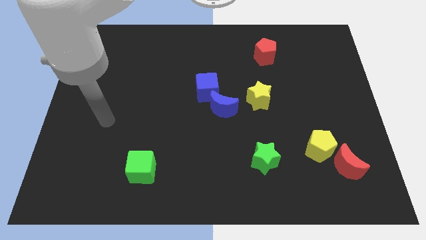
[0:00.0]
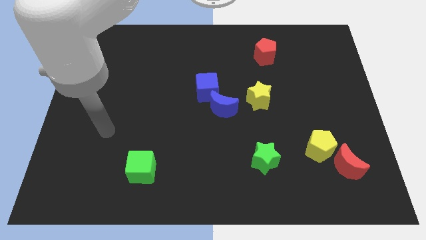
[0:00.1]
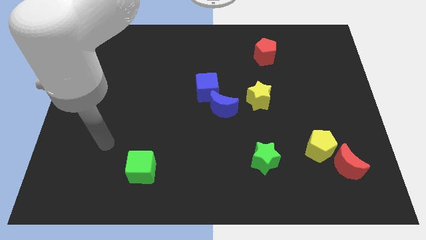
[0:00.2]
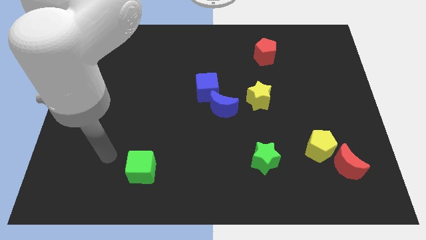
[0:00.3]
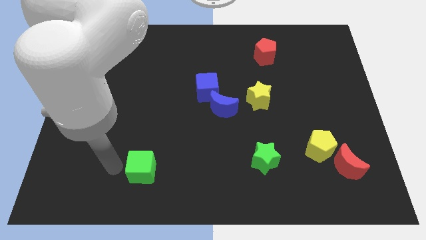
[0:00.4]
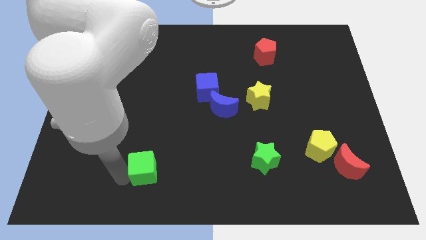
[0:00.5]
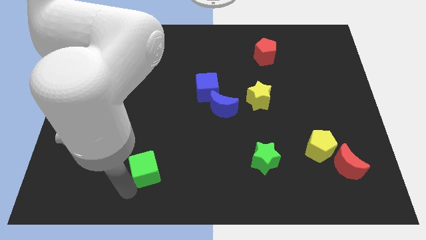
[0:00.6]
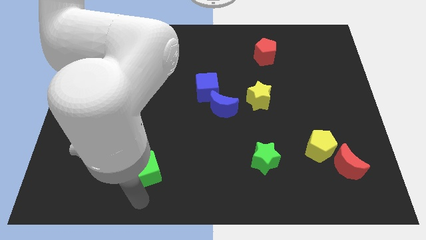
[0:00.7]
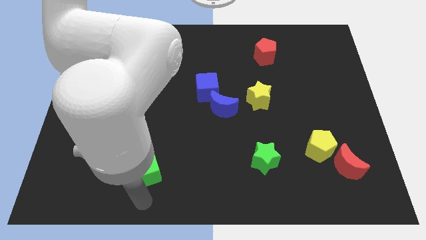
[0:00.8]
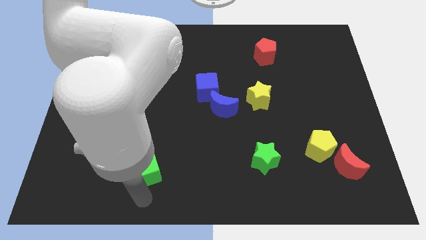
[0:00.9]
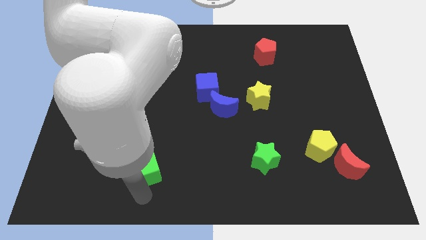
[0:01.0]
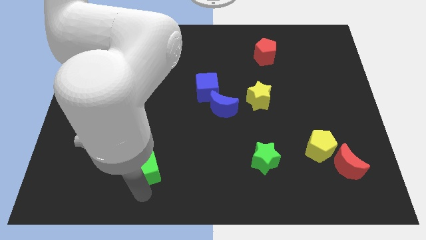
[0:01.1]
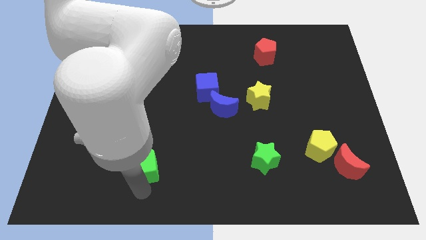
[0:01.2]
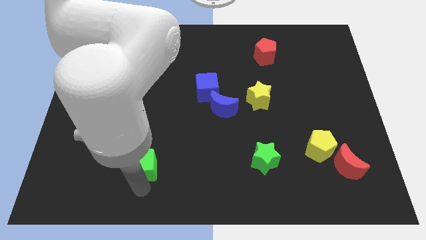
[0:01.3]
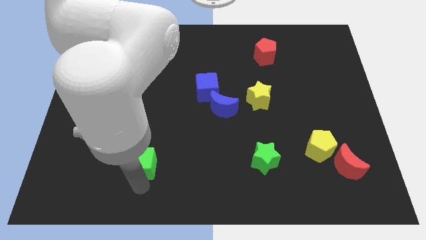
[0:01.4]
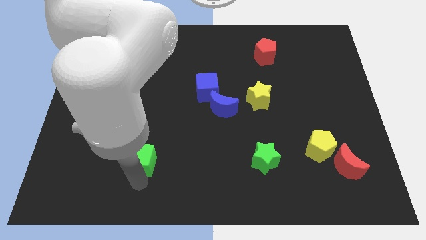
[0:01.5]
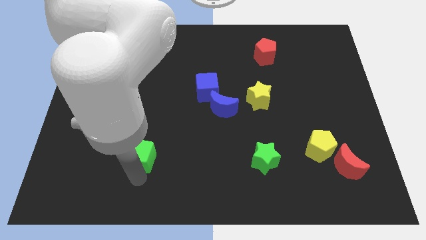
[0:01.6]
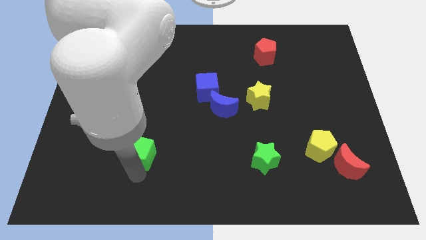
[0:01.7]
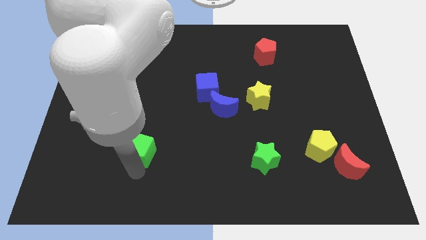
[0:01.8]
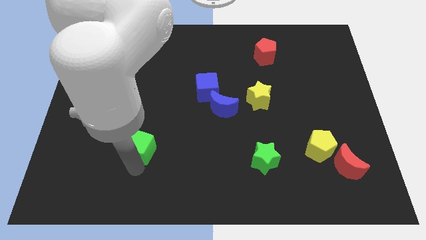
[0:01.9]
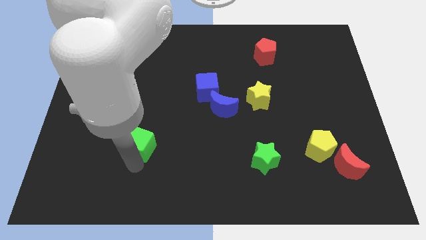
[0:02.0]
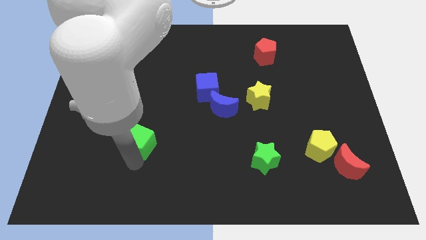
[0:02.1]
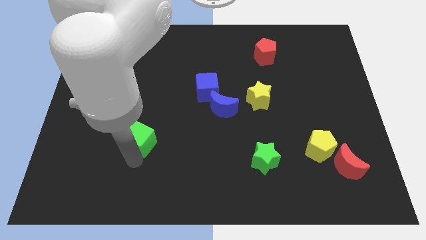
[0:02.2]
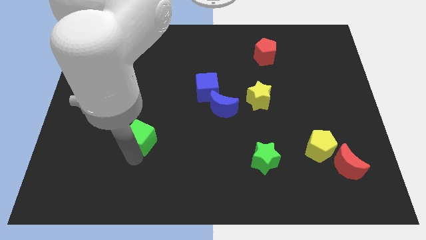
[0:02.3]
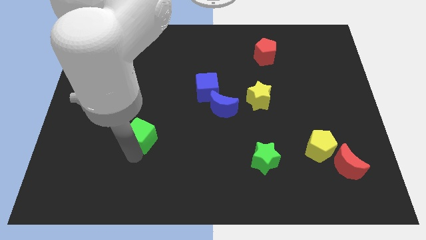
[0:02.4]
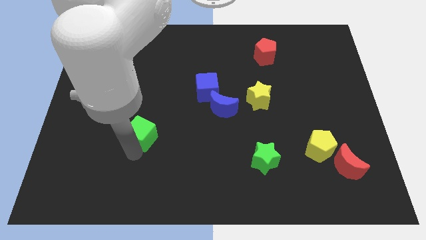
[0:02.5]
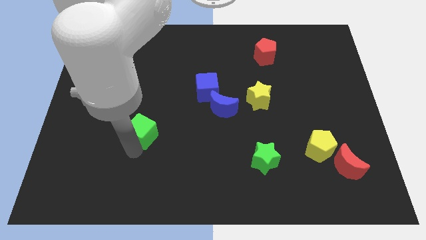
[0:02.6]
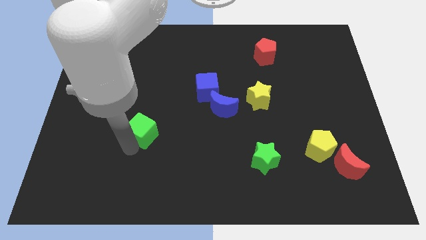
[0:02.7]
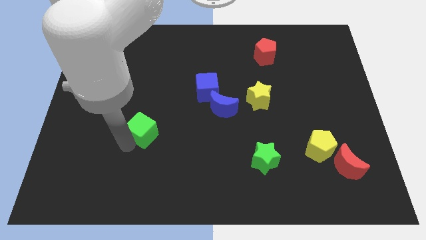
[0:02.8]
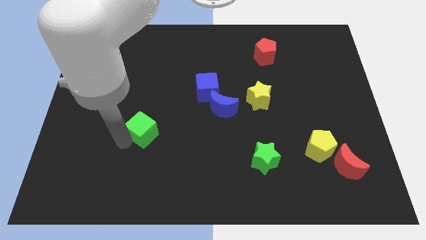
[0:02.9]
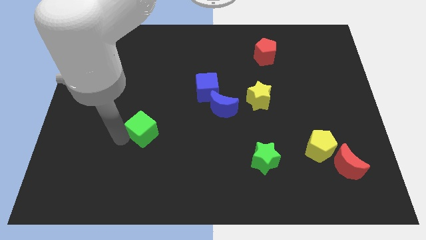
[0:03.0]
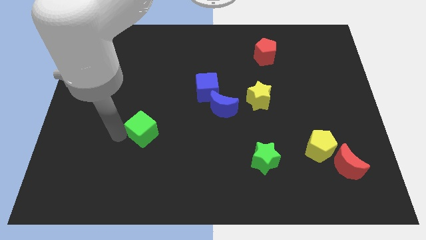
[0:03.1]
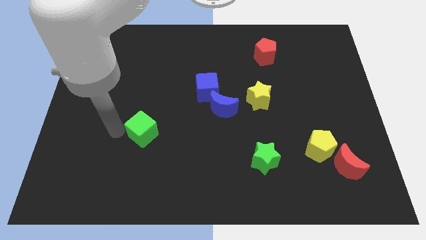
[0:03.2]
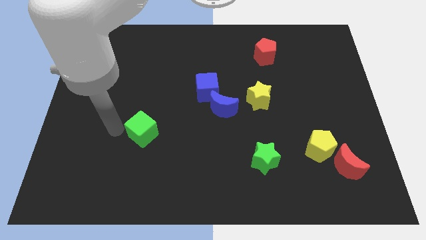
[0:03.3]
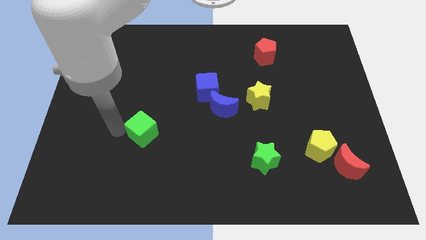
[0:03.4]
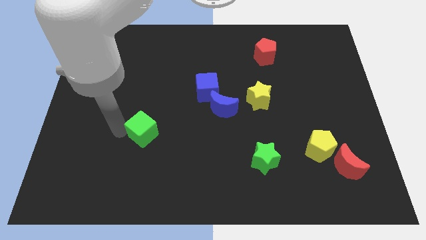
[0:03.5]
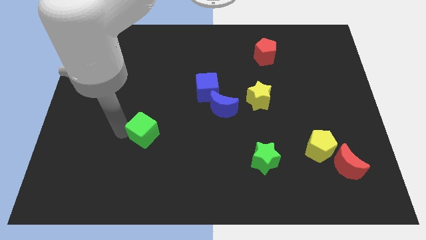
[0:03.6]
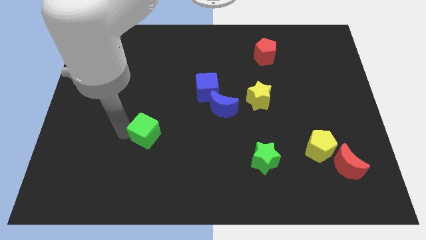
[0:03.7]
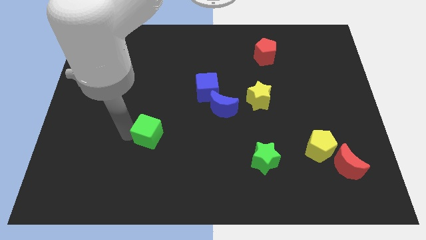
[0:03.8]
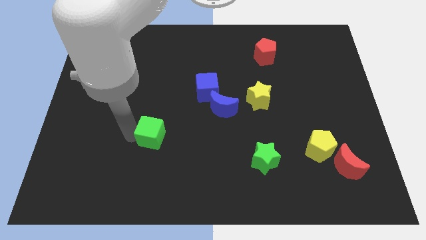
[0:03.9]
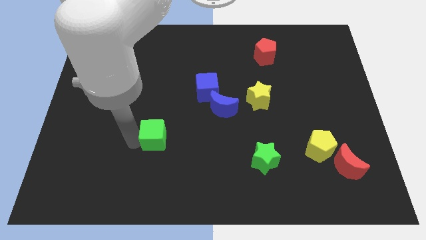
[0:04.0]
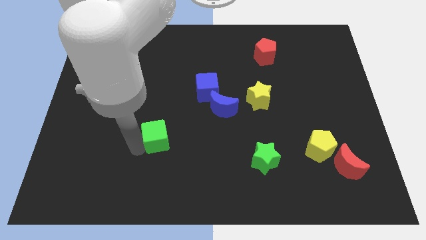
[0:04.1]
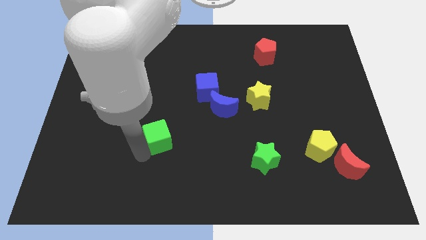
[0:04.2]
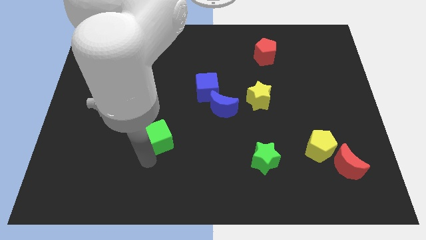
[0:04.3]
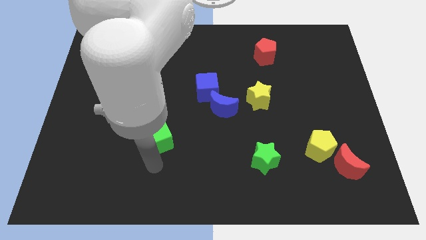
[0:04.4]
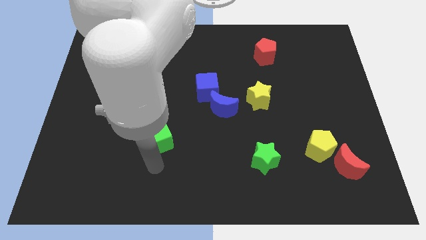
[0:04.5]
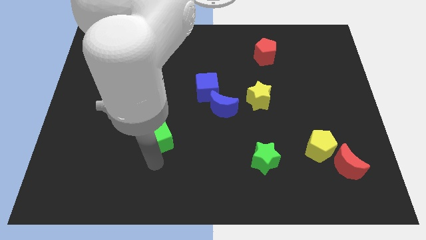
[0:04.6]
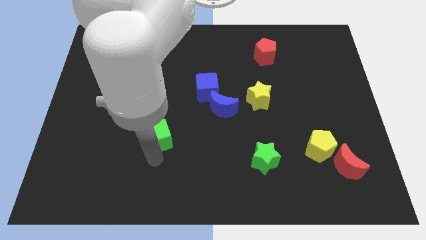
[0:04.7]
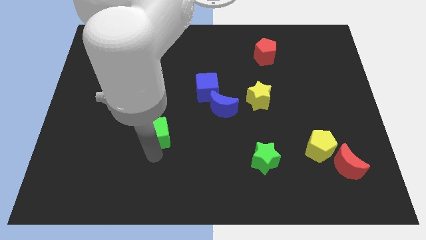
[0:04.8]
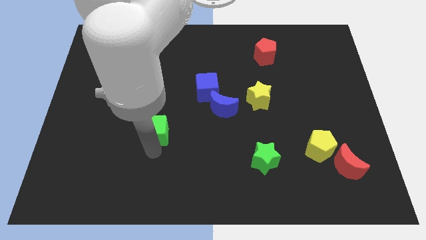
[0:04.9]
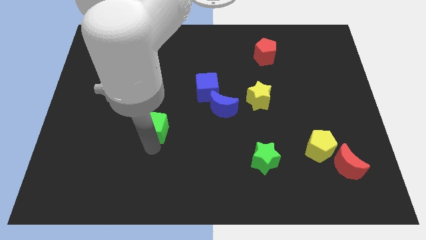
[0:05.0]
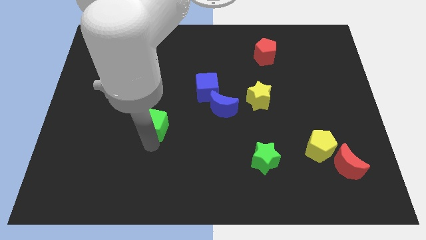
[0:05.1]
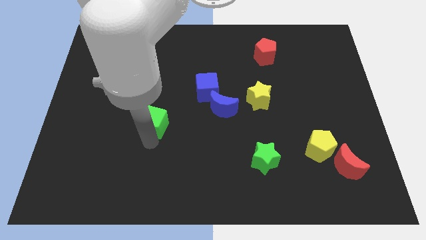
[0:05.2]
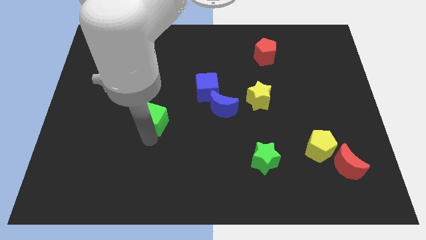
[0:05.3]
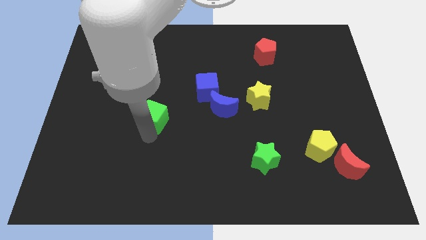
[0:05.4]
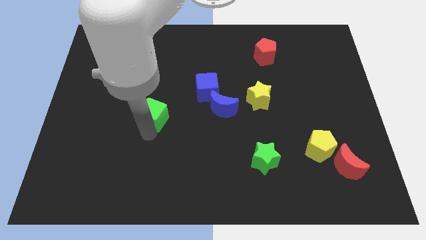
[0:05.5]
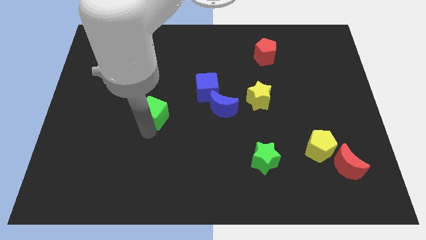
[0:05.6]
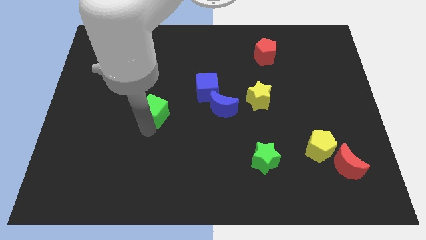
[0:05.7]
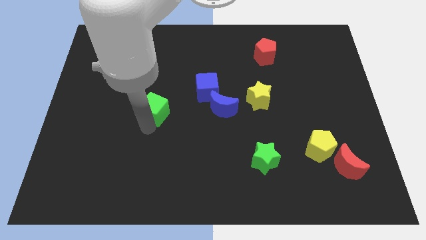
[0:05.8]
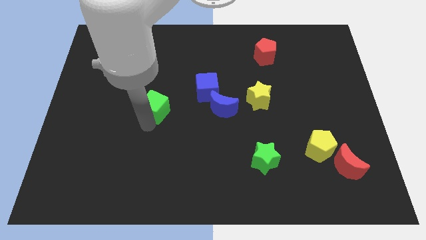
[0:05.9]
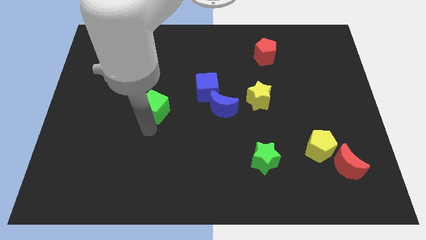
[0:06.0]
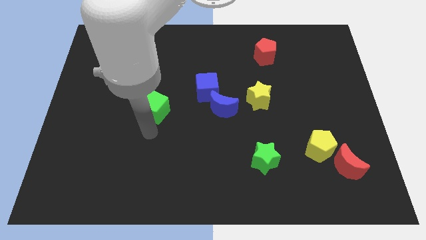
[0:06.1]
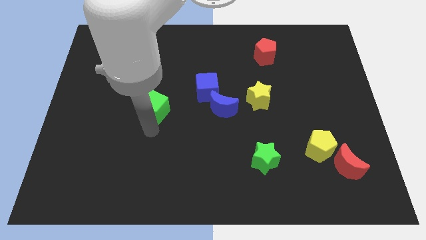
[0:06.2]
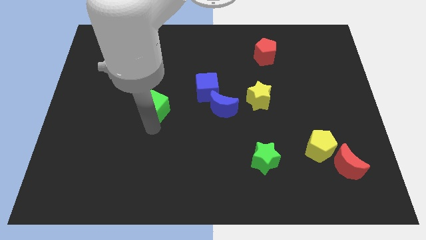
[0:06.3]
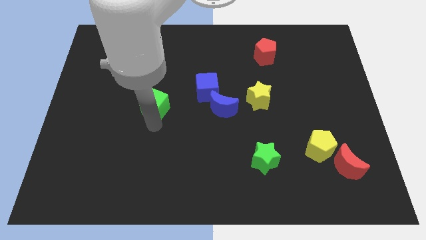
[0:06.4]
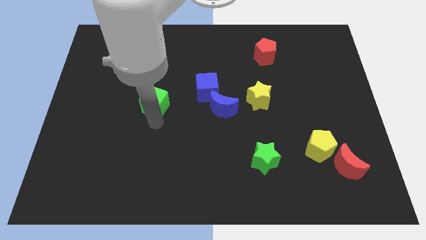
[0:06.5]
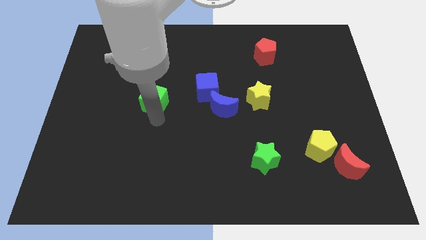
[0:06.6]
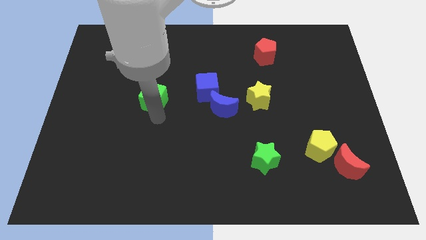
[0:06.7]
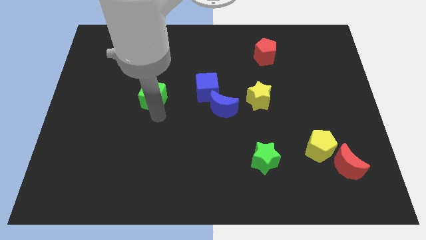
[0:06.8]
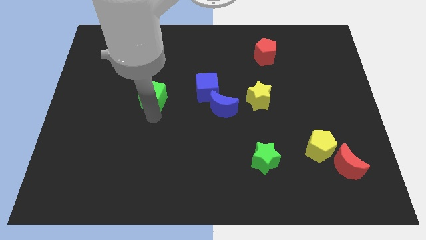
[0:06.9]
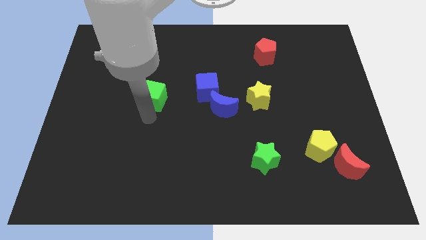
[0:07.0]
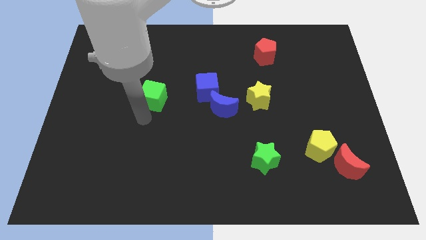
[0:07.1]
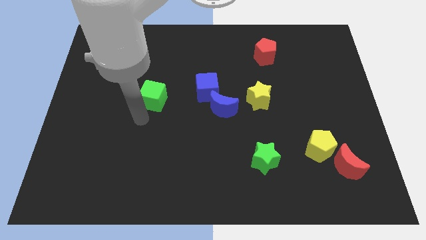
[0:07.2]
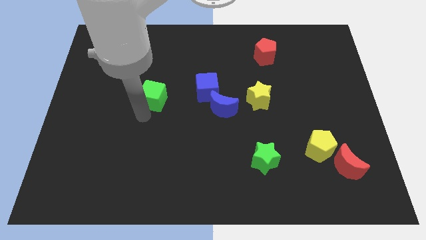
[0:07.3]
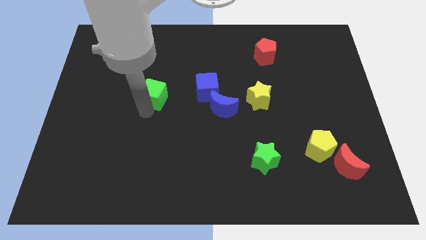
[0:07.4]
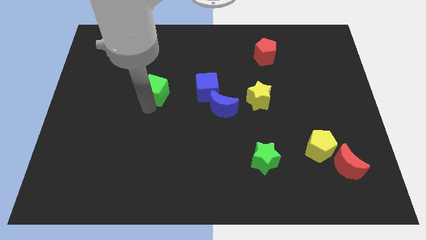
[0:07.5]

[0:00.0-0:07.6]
push the green cube upwards

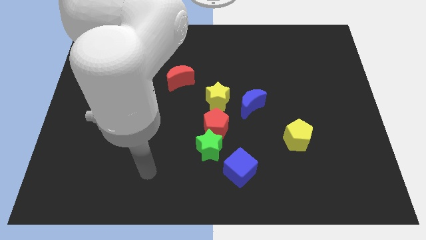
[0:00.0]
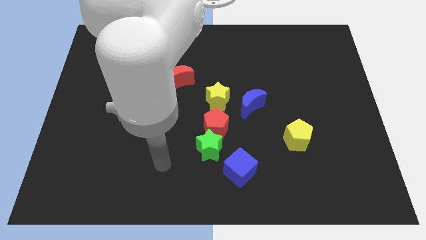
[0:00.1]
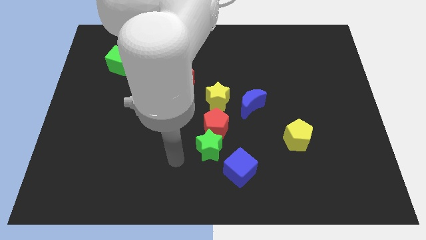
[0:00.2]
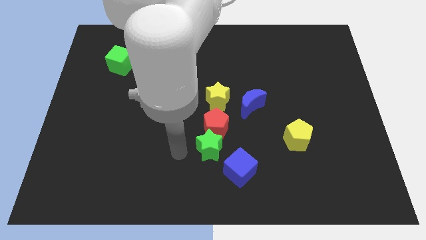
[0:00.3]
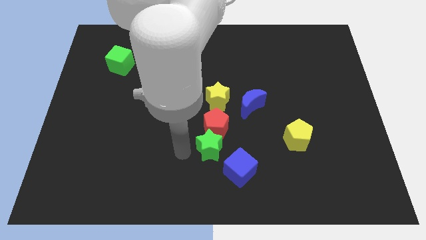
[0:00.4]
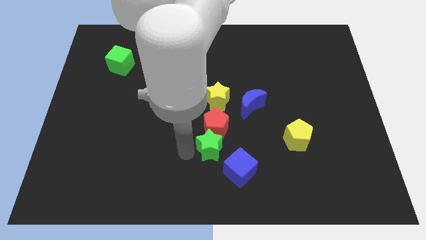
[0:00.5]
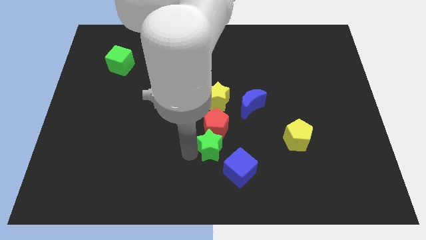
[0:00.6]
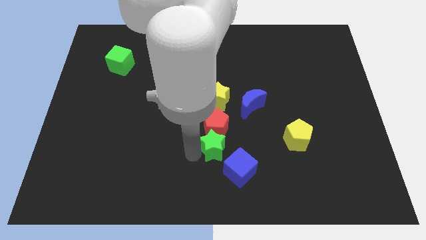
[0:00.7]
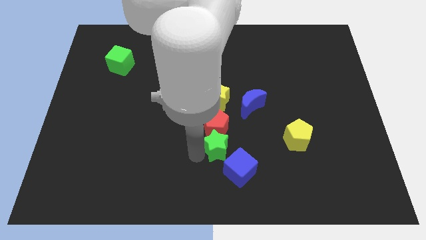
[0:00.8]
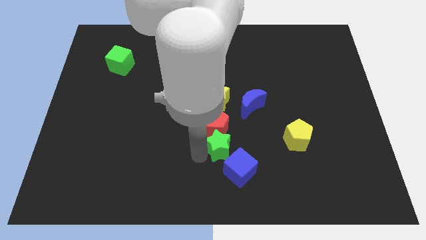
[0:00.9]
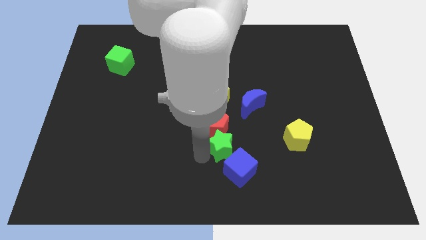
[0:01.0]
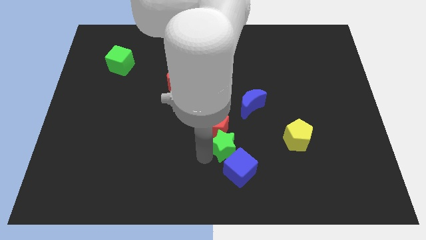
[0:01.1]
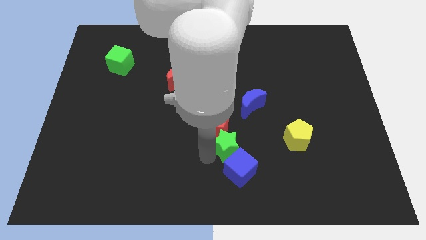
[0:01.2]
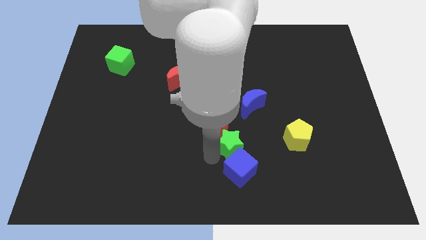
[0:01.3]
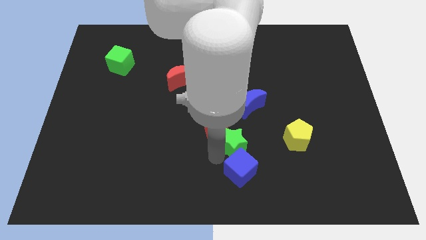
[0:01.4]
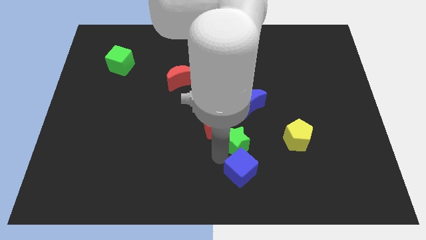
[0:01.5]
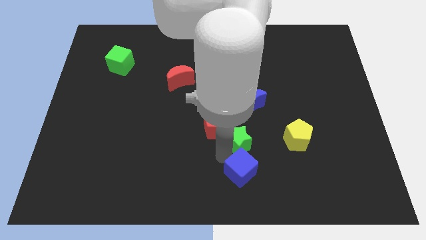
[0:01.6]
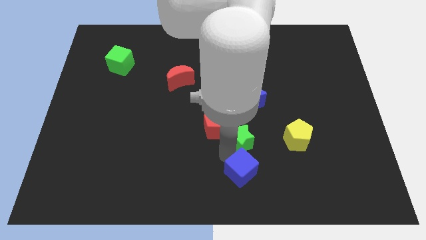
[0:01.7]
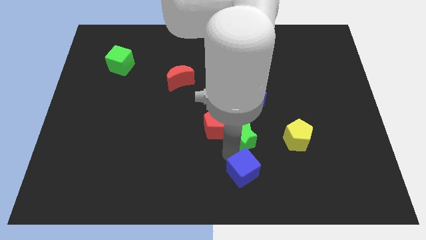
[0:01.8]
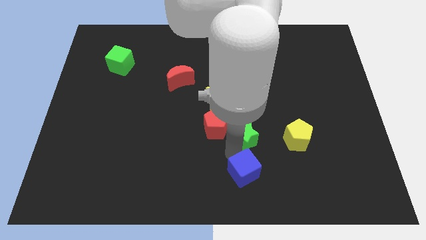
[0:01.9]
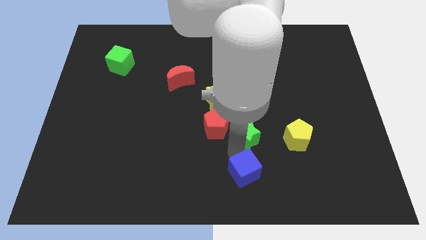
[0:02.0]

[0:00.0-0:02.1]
move the green star up and to the right somewhat
